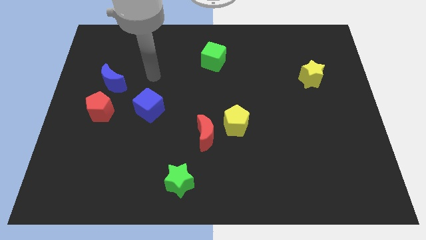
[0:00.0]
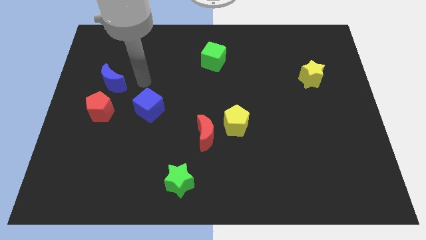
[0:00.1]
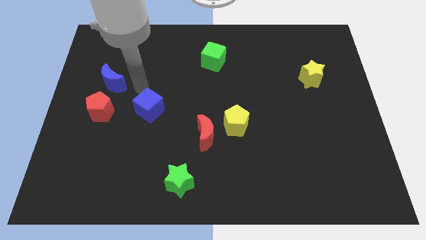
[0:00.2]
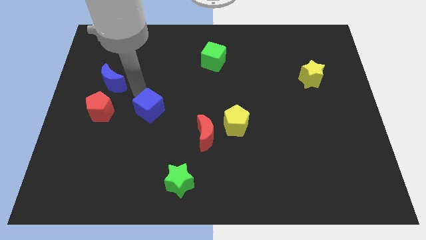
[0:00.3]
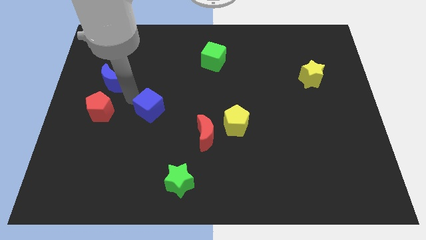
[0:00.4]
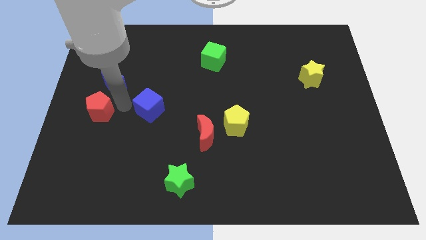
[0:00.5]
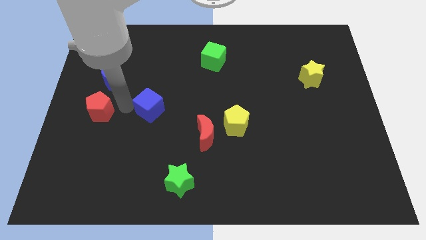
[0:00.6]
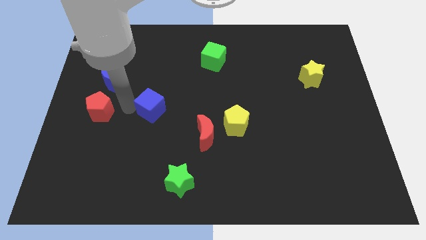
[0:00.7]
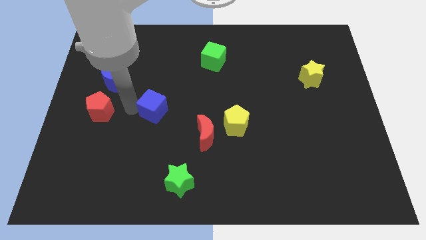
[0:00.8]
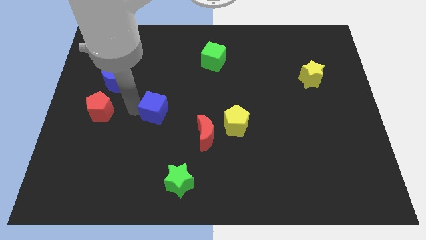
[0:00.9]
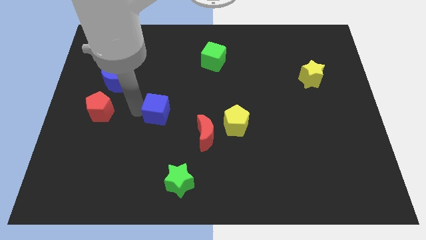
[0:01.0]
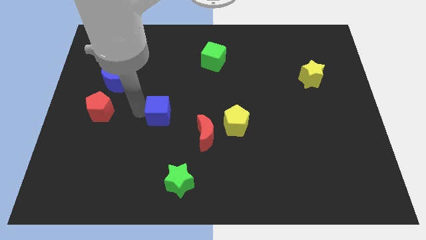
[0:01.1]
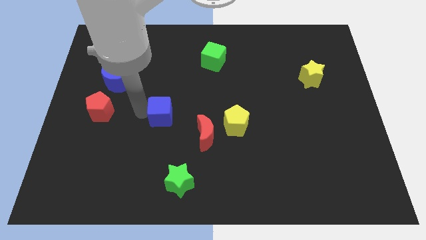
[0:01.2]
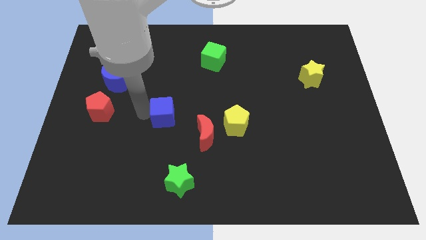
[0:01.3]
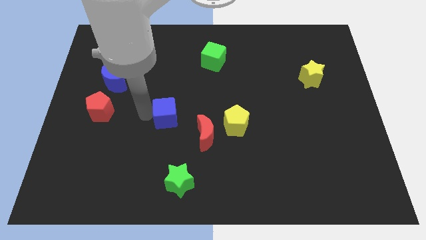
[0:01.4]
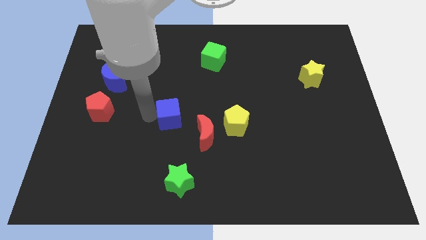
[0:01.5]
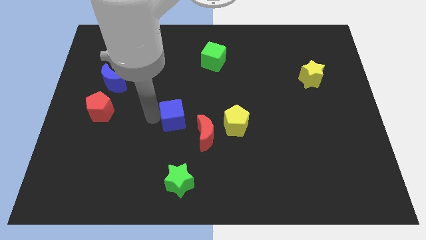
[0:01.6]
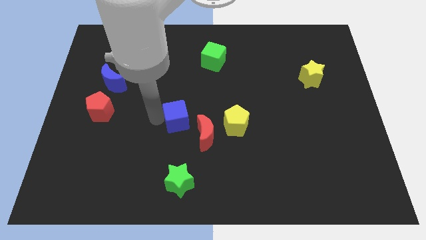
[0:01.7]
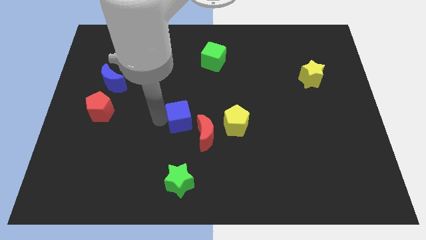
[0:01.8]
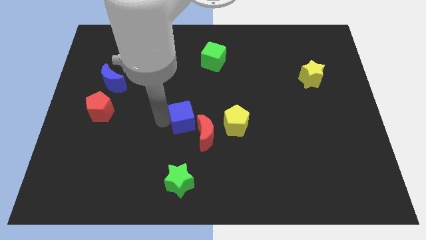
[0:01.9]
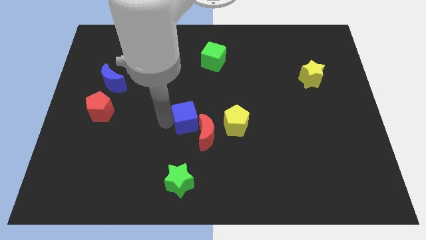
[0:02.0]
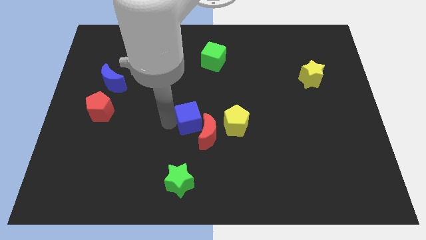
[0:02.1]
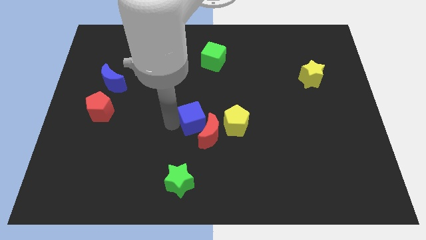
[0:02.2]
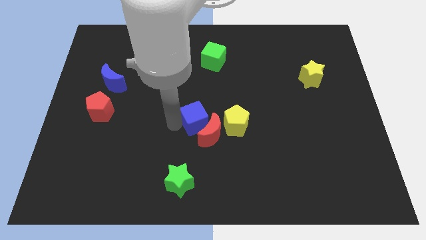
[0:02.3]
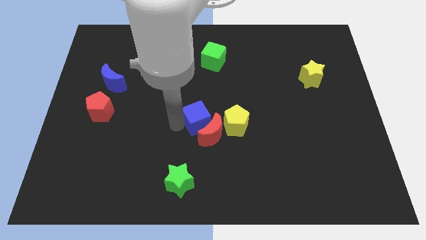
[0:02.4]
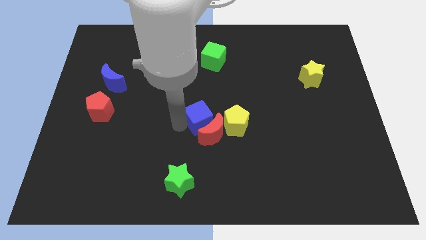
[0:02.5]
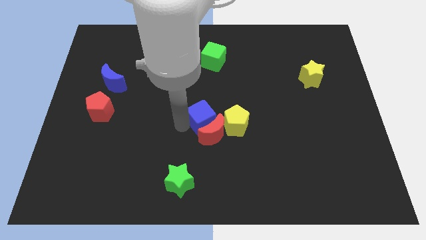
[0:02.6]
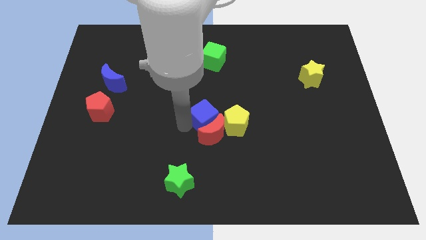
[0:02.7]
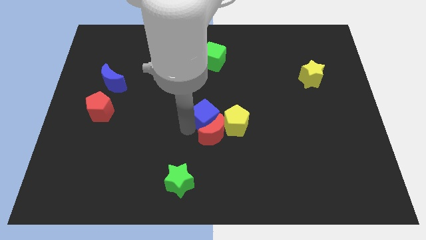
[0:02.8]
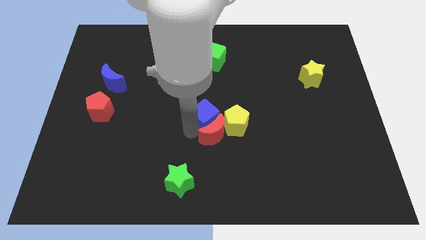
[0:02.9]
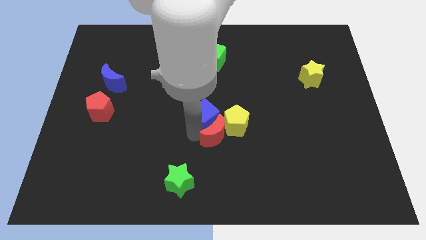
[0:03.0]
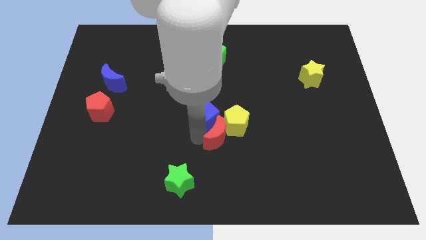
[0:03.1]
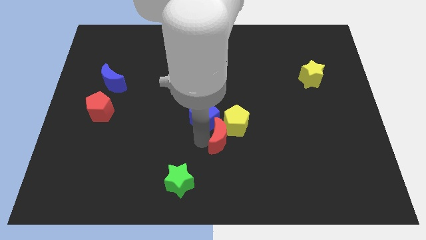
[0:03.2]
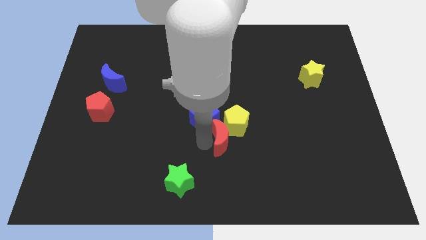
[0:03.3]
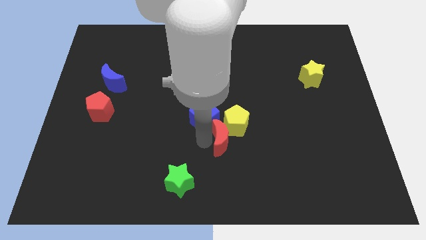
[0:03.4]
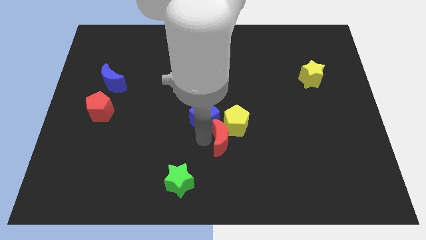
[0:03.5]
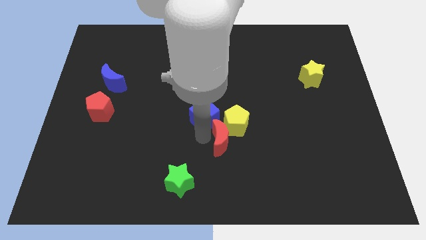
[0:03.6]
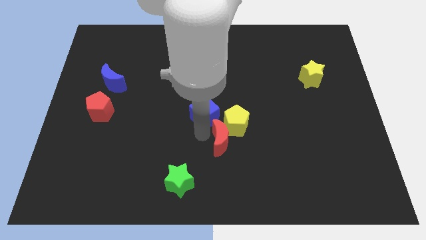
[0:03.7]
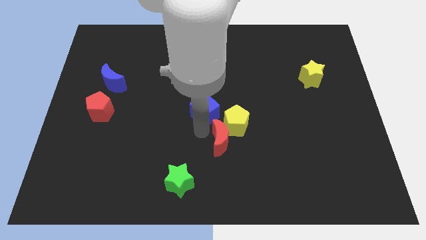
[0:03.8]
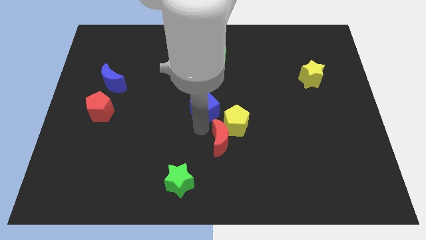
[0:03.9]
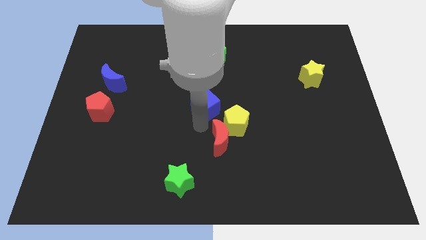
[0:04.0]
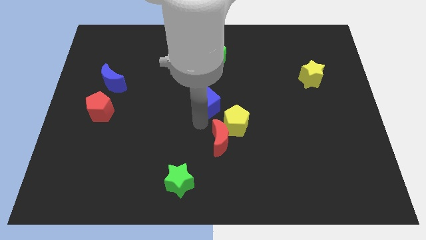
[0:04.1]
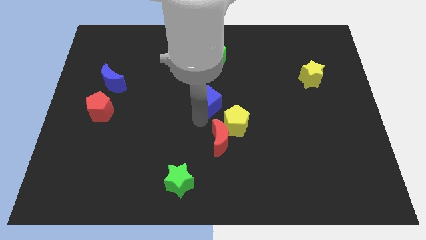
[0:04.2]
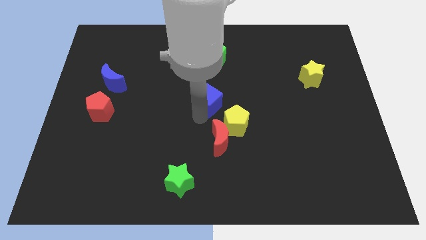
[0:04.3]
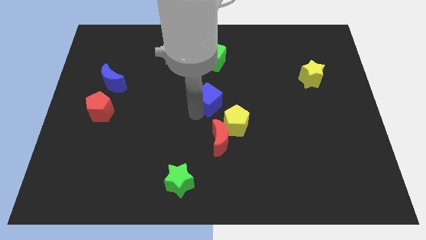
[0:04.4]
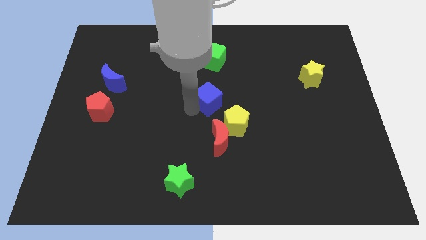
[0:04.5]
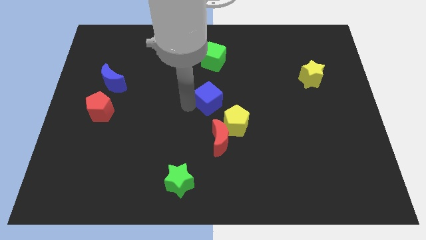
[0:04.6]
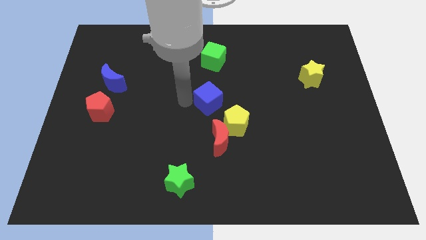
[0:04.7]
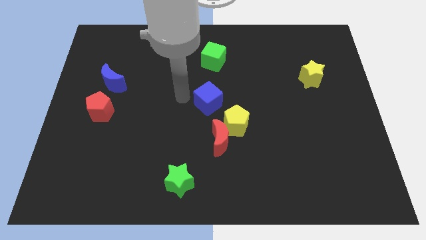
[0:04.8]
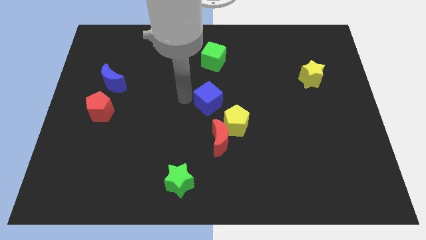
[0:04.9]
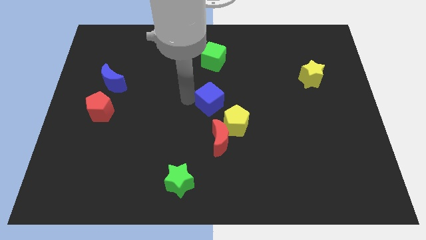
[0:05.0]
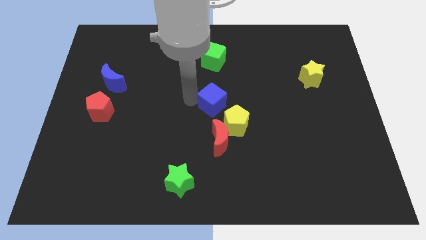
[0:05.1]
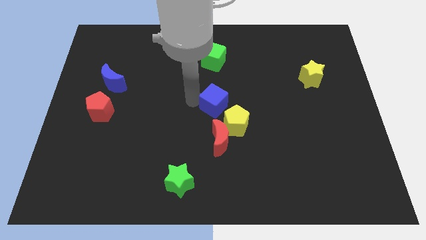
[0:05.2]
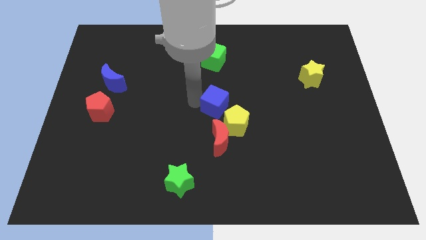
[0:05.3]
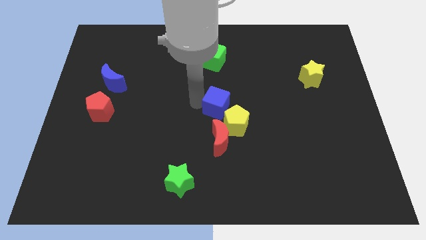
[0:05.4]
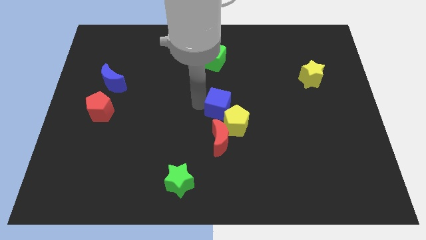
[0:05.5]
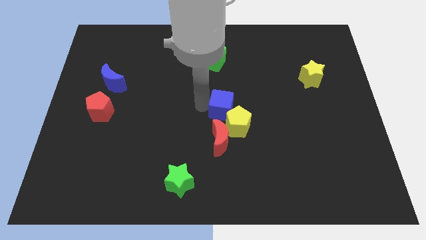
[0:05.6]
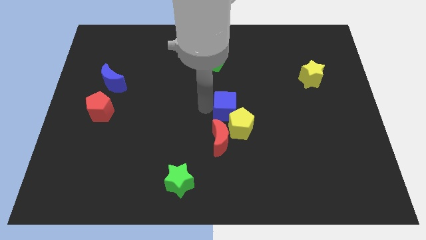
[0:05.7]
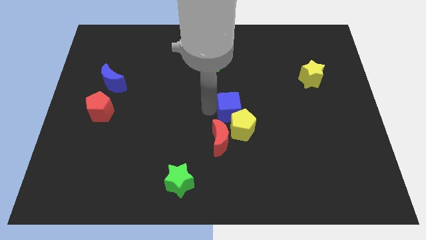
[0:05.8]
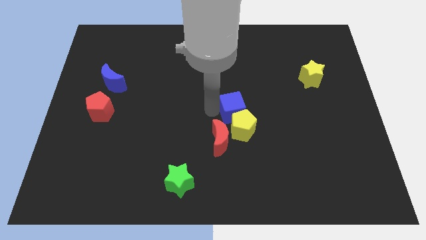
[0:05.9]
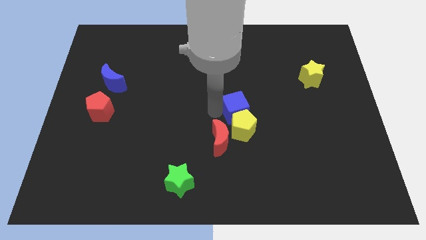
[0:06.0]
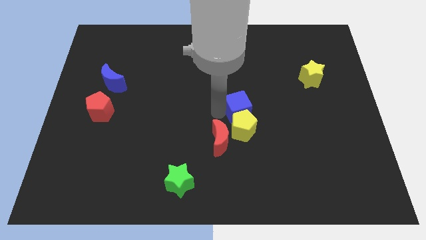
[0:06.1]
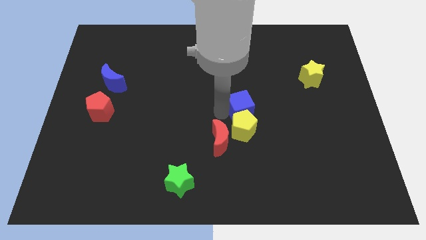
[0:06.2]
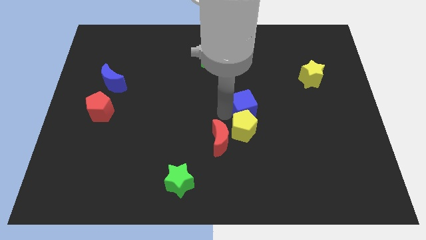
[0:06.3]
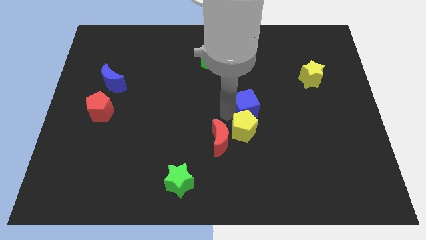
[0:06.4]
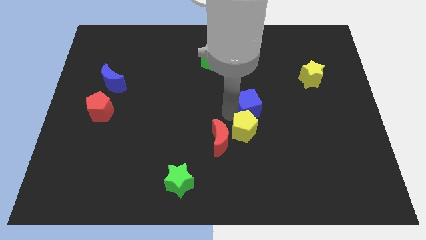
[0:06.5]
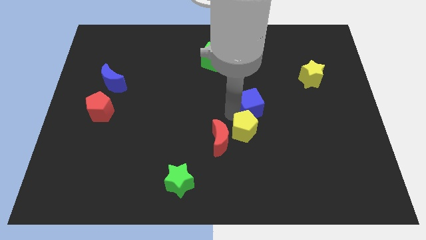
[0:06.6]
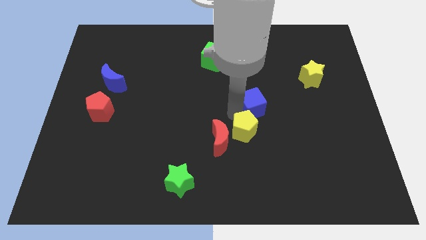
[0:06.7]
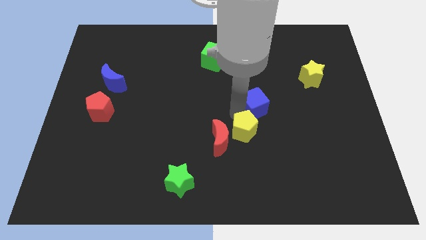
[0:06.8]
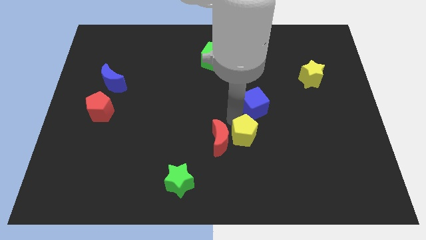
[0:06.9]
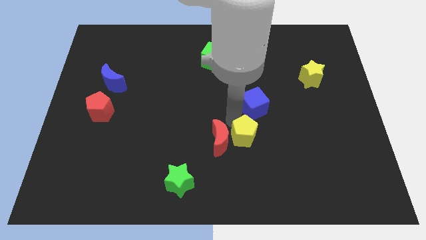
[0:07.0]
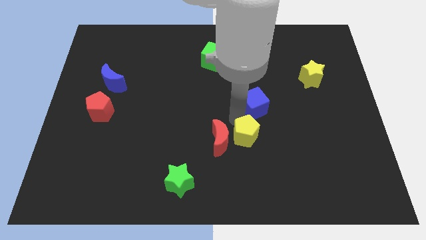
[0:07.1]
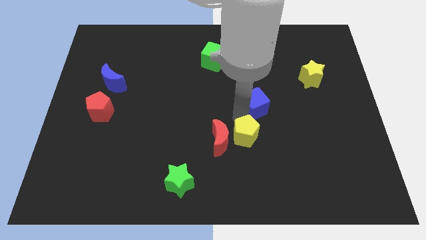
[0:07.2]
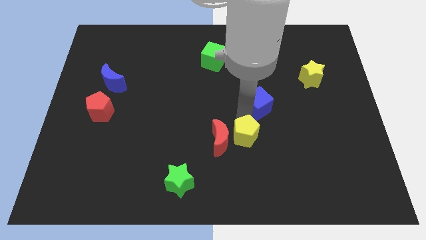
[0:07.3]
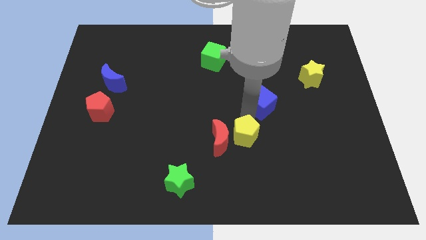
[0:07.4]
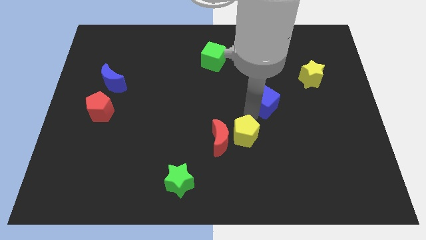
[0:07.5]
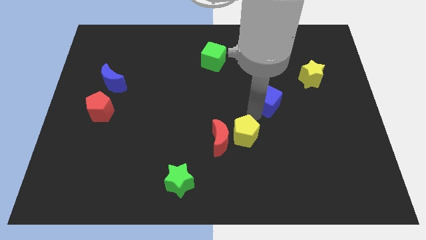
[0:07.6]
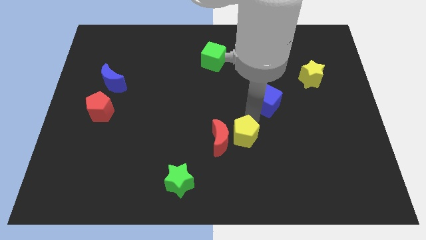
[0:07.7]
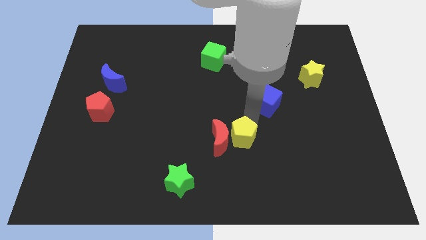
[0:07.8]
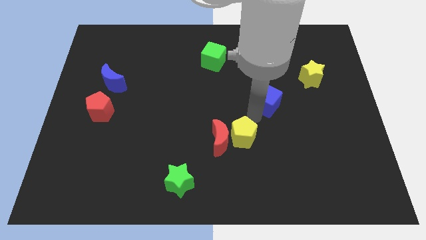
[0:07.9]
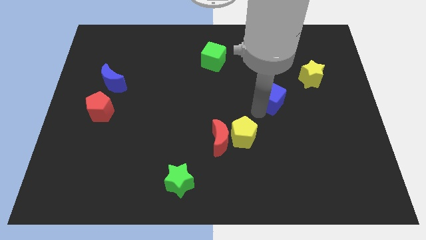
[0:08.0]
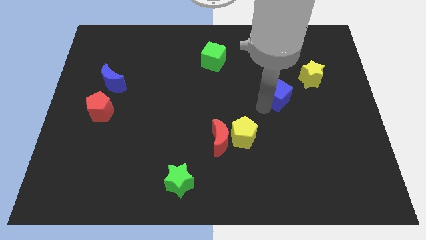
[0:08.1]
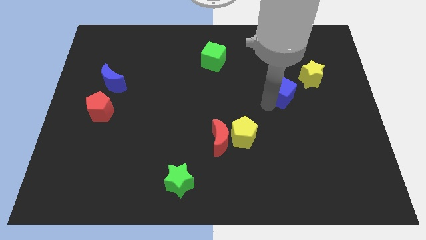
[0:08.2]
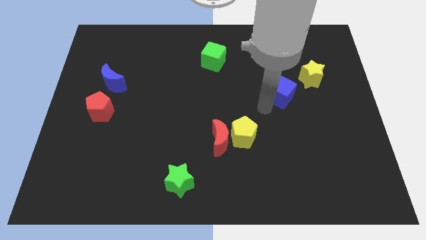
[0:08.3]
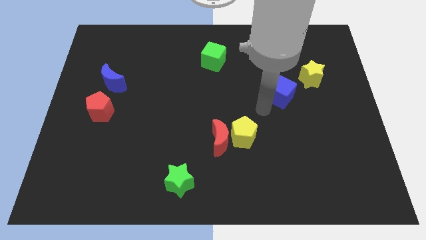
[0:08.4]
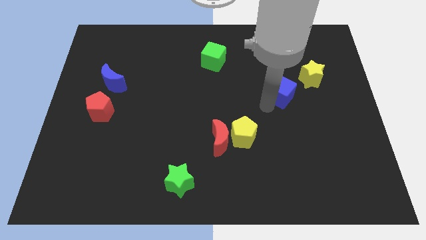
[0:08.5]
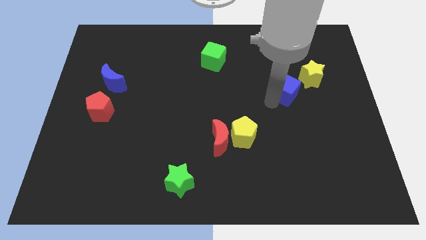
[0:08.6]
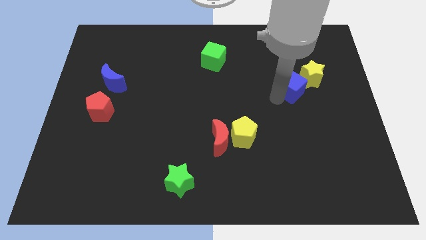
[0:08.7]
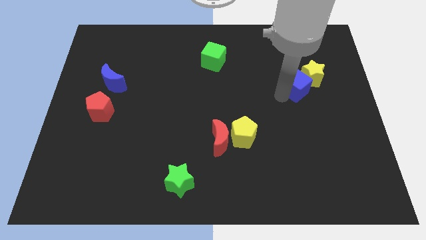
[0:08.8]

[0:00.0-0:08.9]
put the blue cube towards the yellow star
